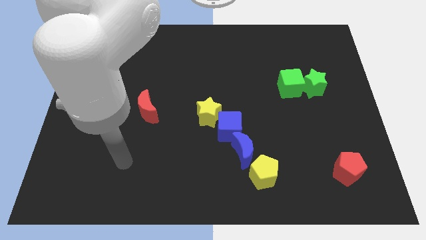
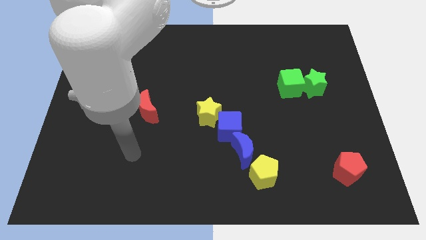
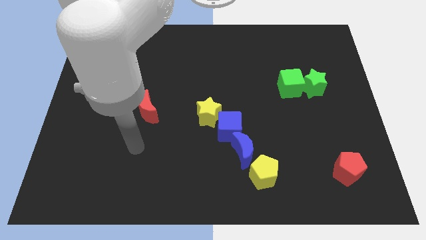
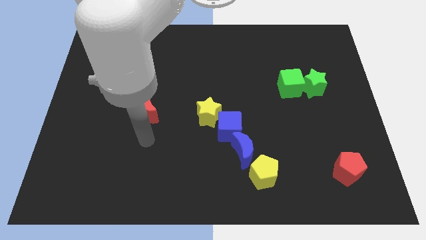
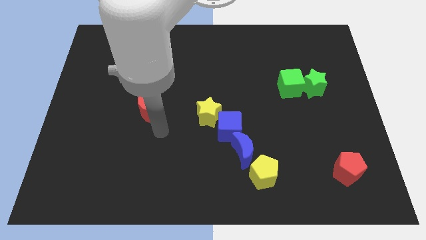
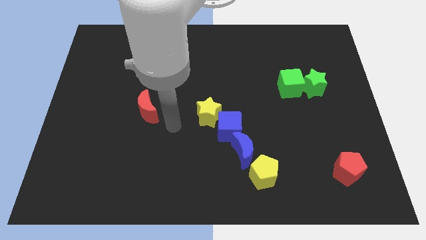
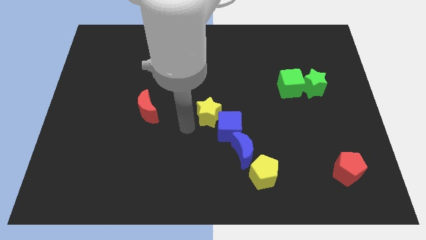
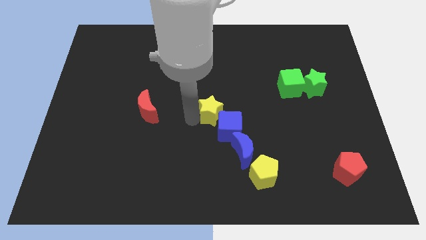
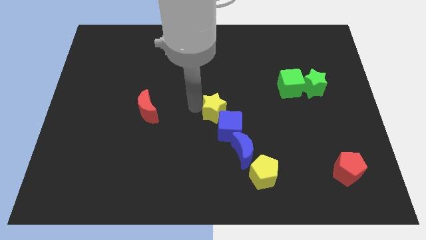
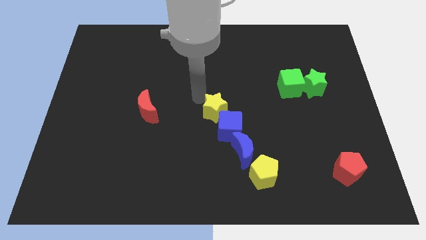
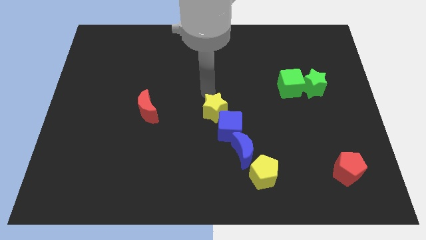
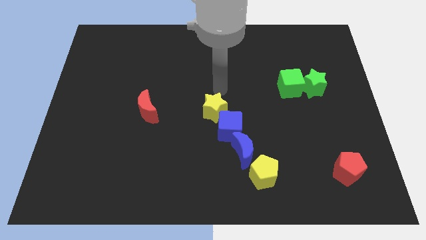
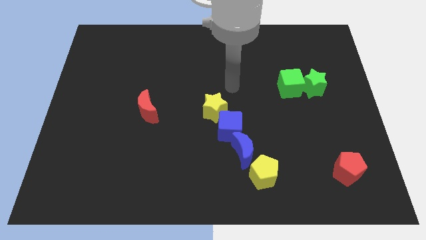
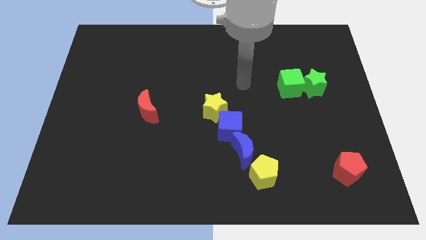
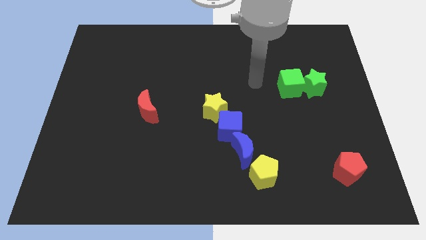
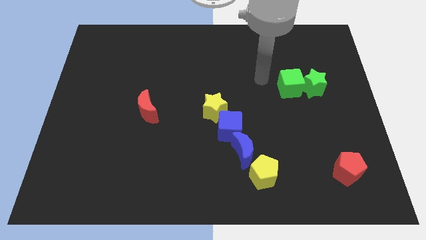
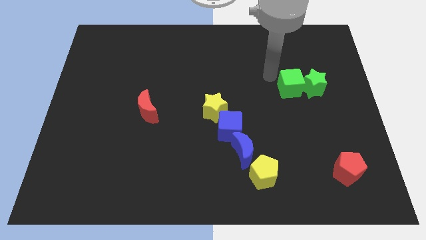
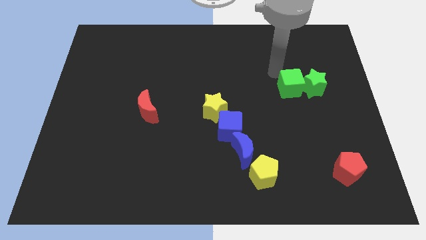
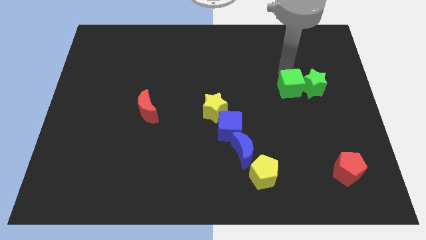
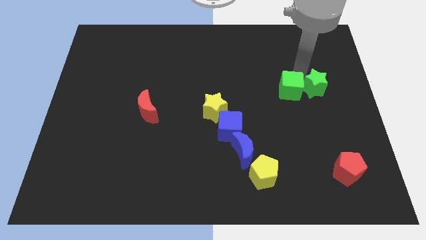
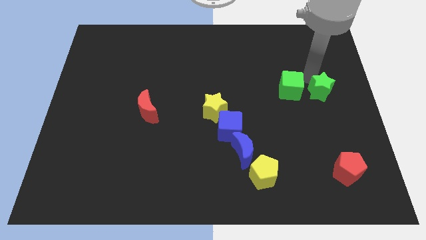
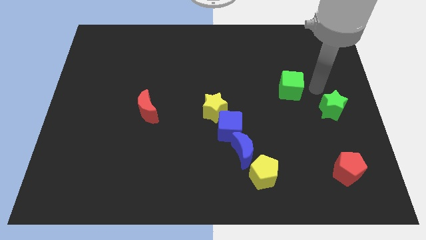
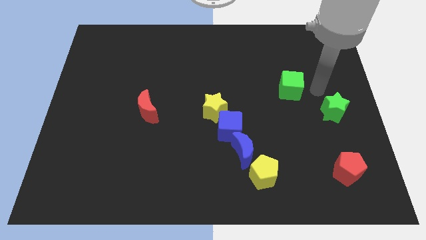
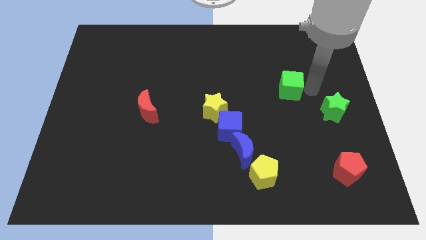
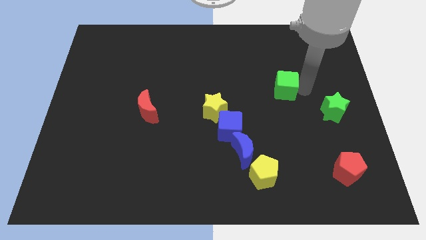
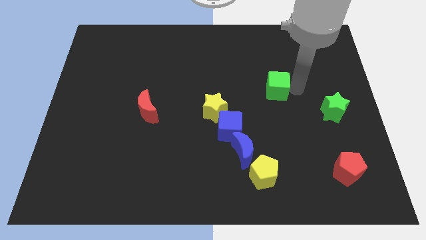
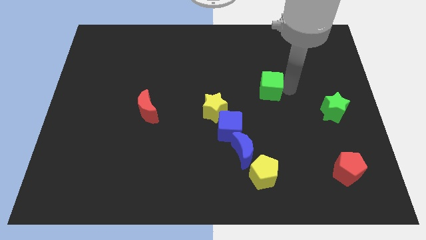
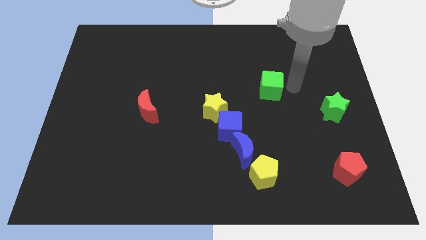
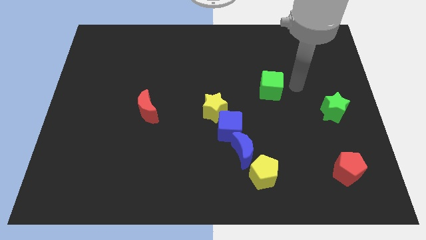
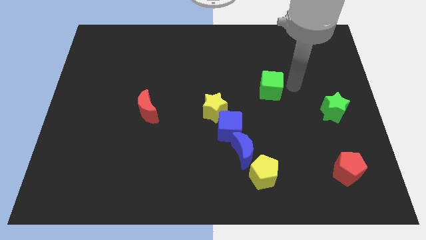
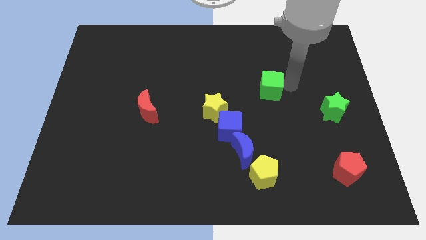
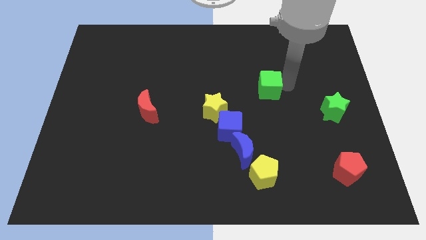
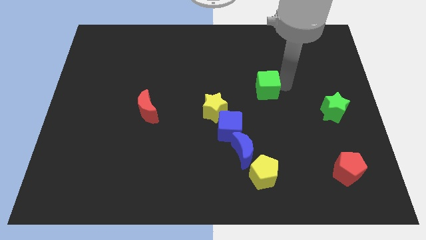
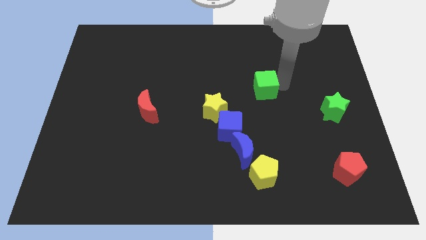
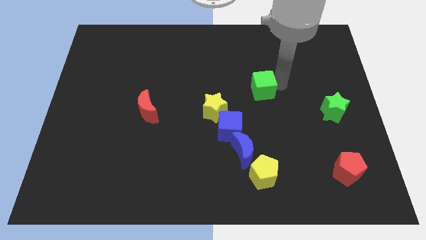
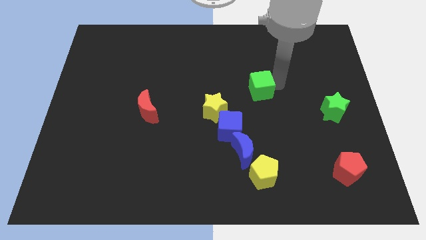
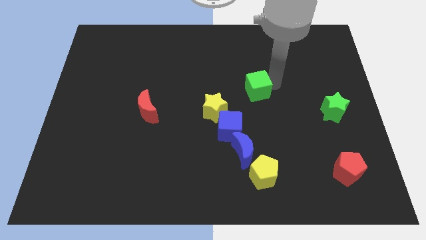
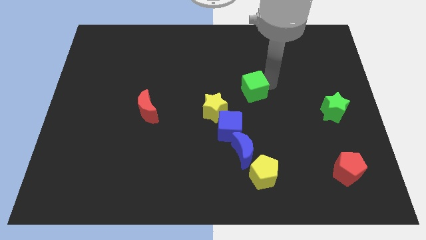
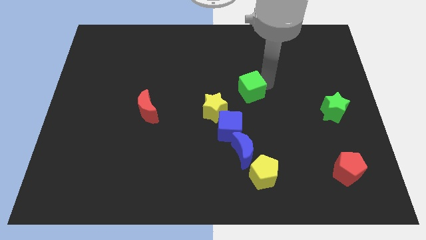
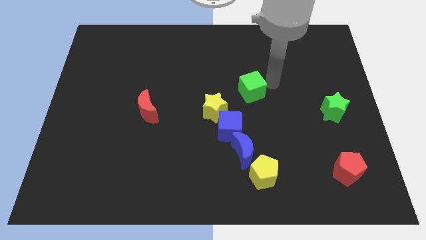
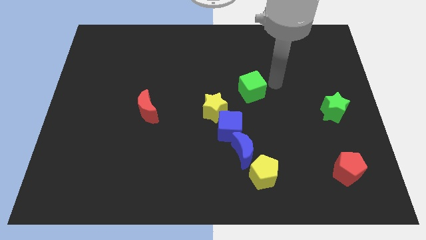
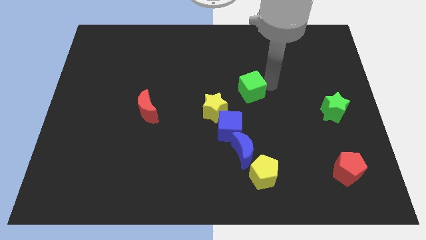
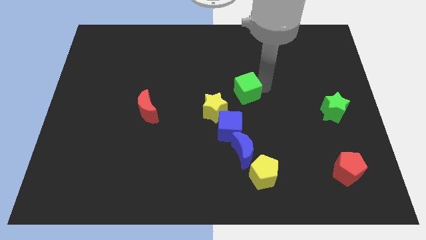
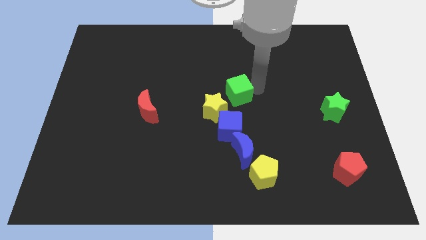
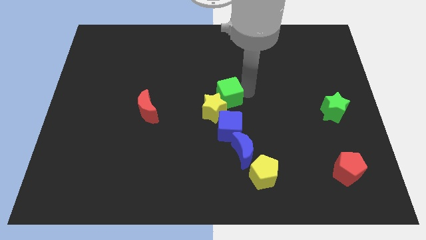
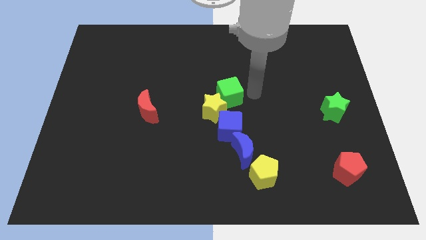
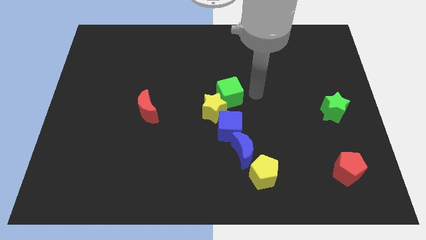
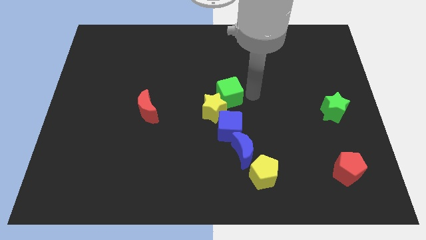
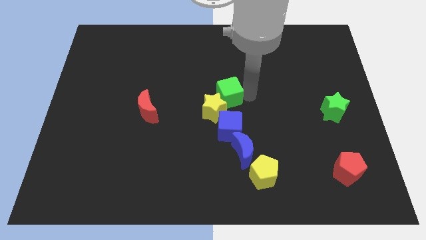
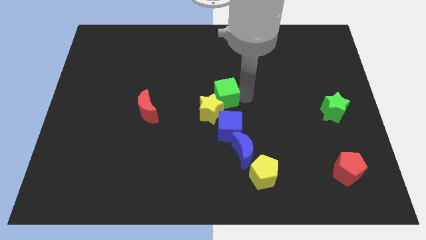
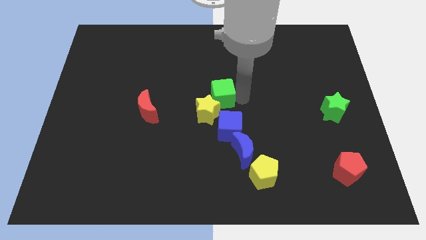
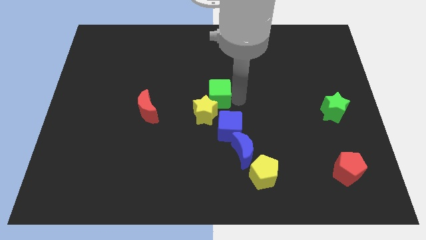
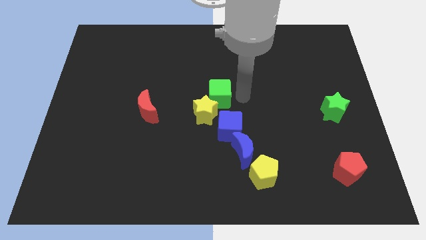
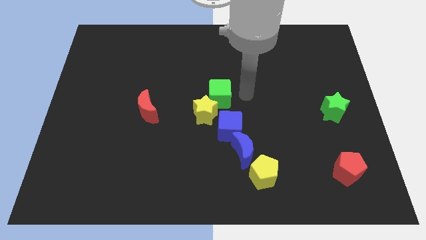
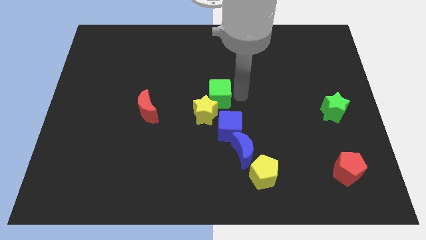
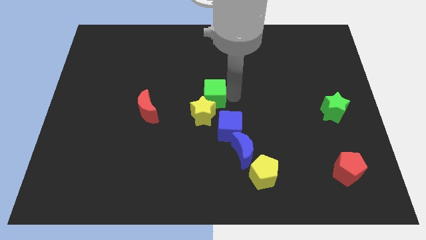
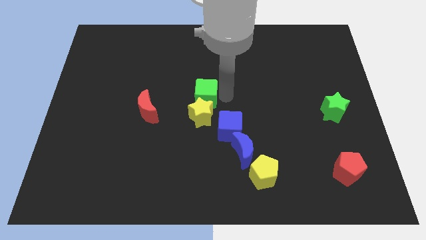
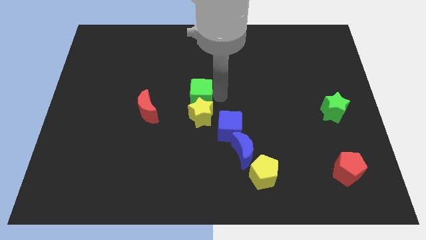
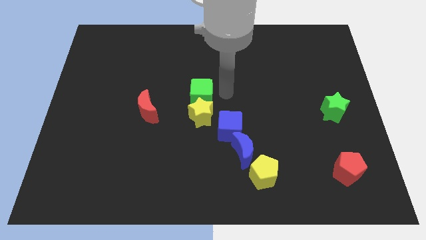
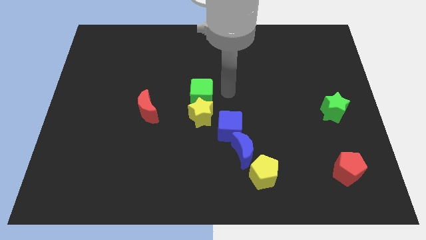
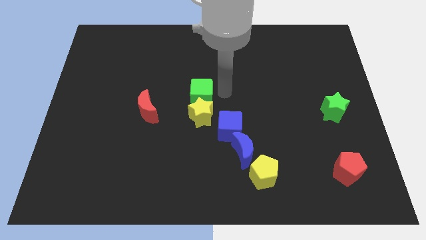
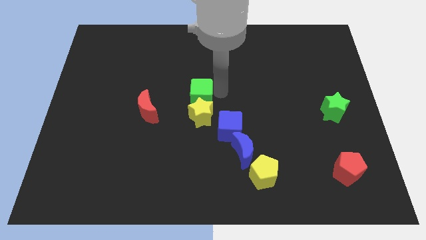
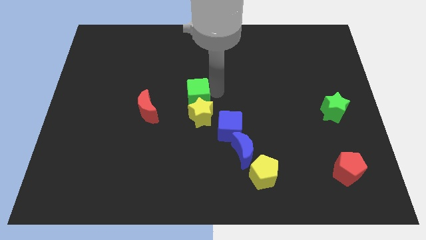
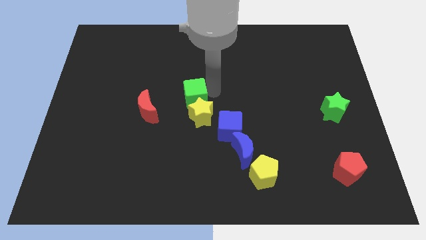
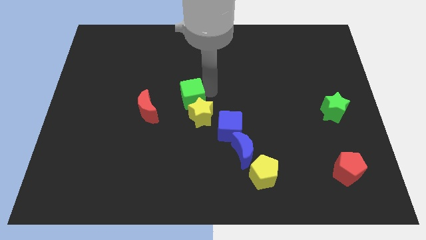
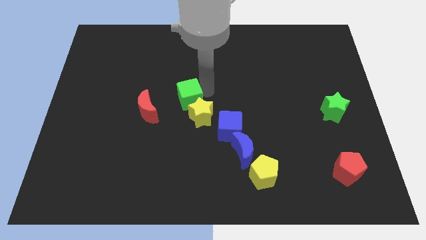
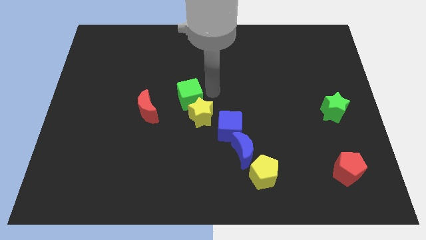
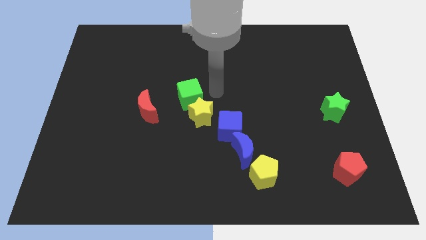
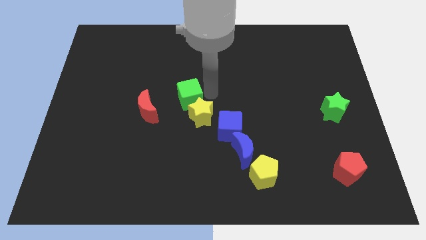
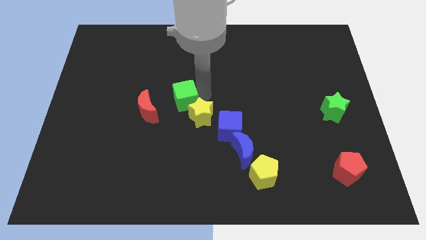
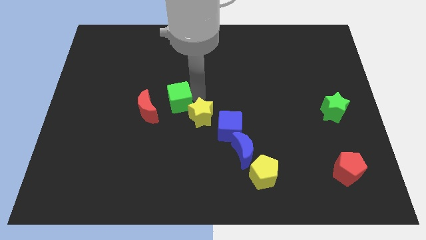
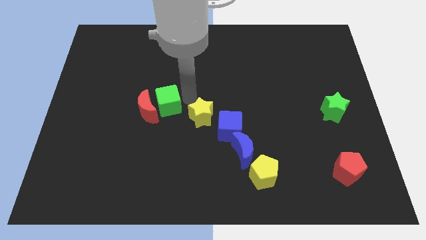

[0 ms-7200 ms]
slide the green cube close to the red moon

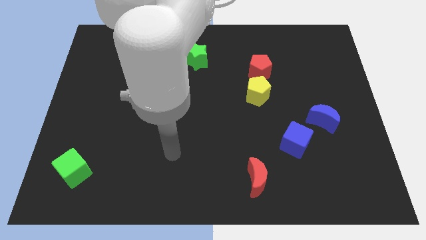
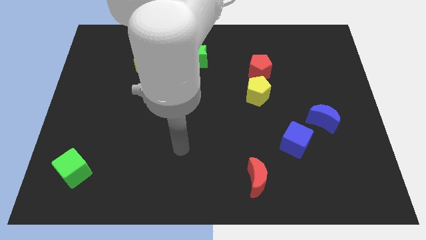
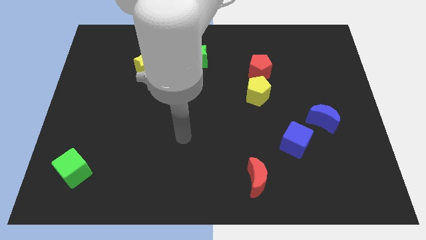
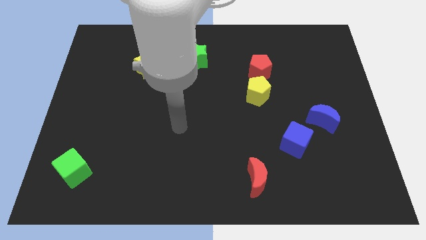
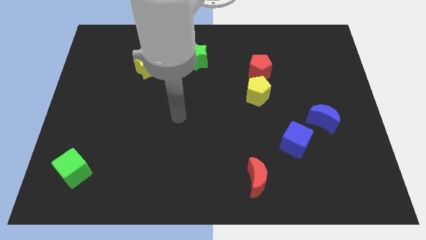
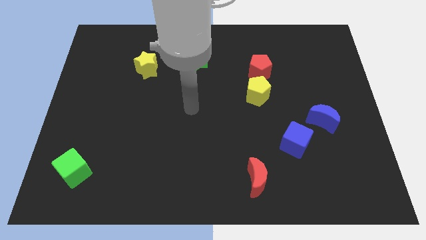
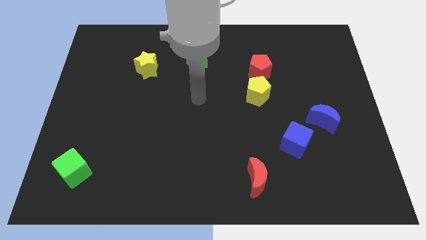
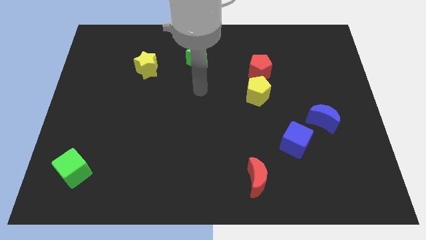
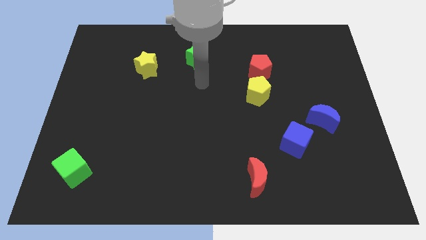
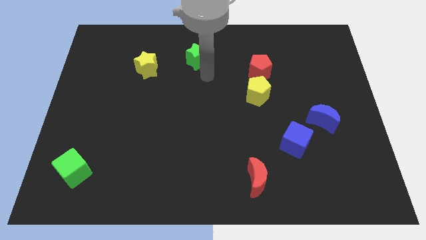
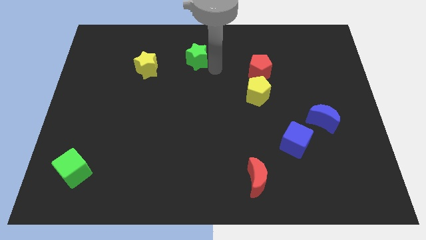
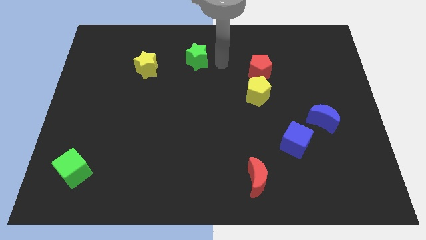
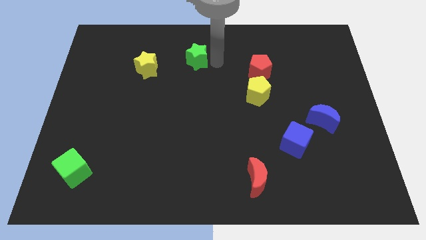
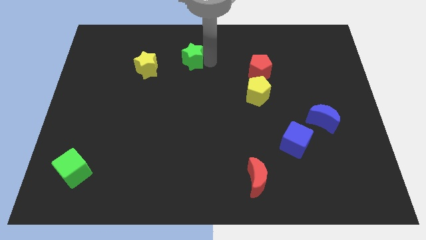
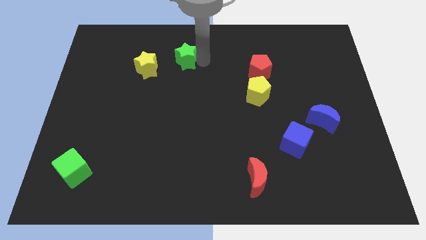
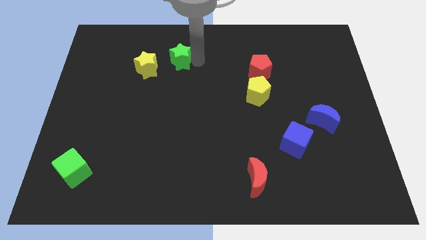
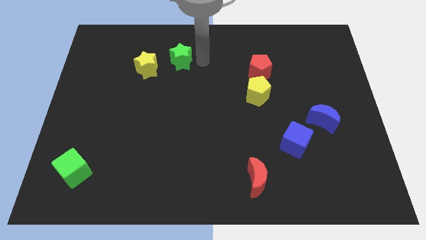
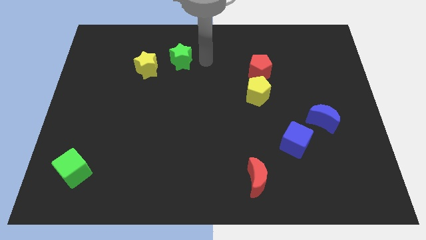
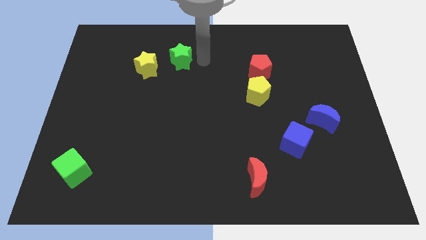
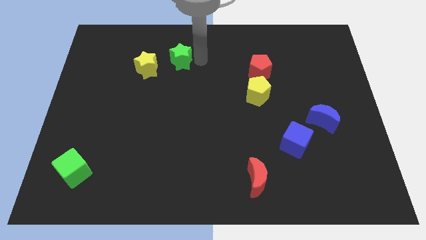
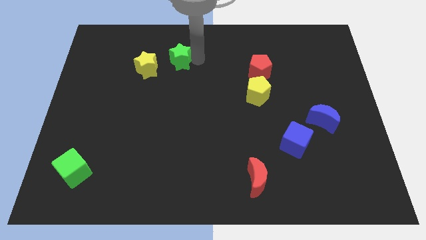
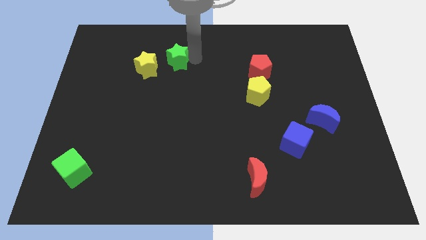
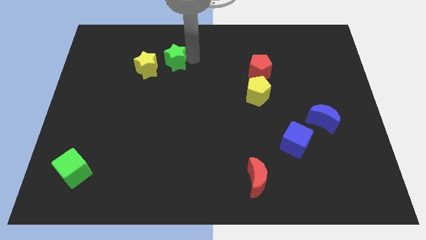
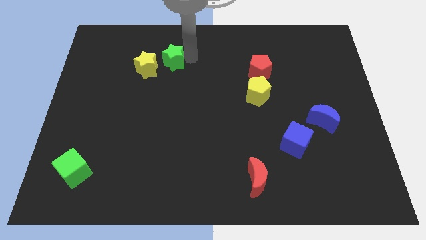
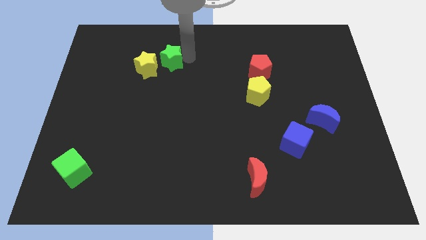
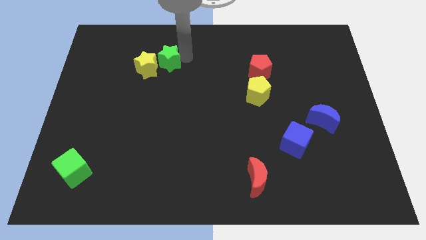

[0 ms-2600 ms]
push the green star close to the yellow star
